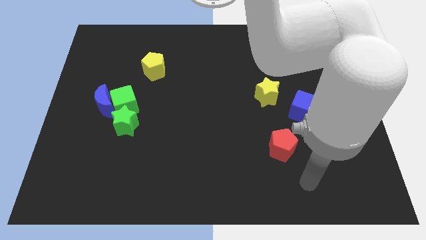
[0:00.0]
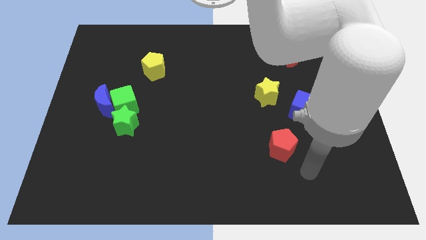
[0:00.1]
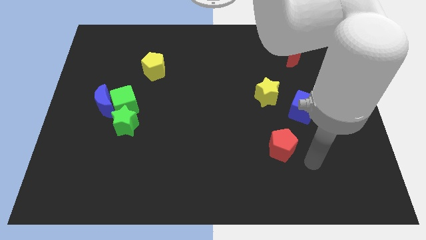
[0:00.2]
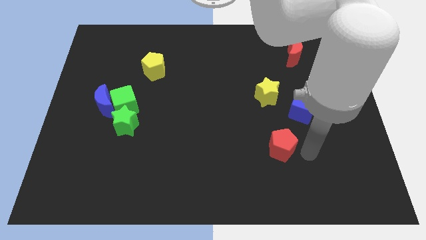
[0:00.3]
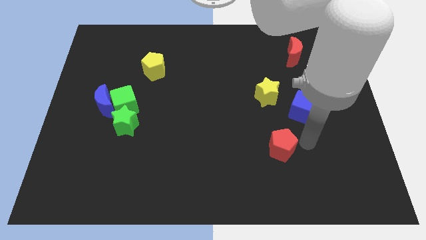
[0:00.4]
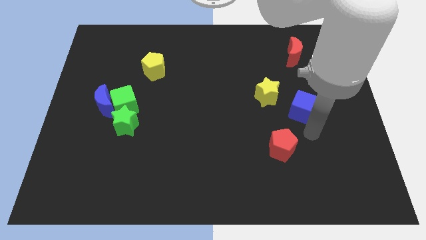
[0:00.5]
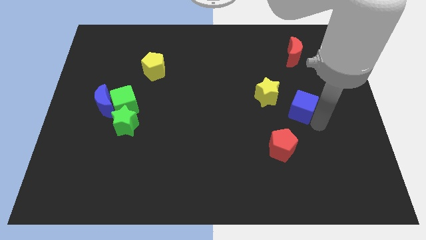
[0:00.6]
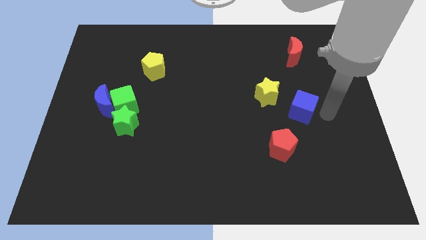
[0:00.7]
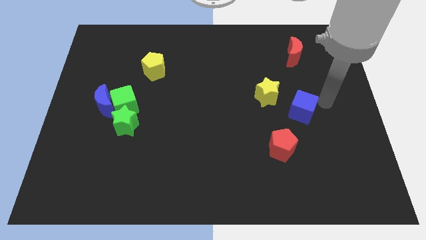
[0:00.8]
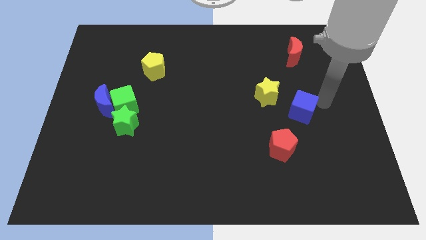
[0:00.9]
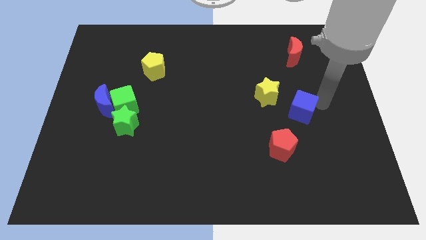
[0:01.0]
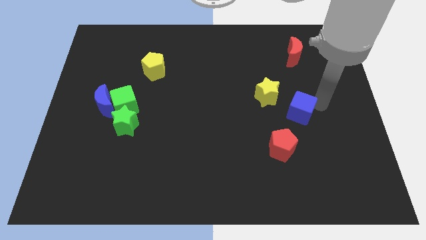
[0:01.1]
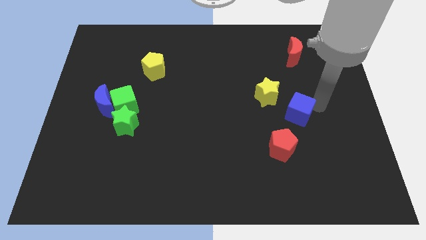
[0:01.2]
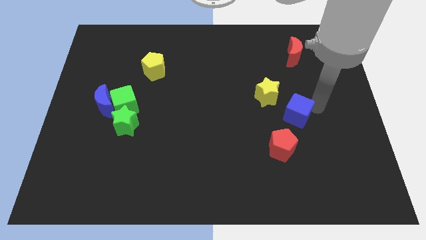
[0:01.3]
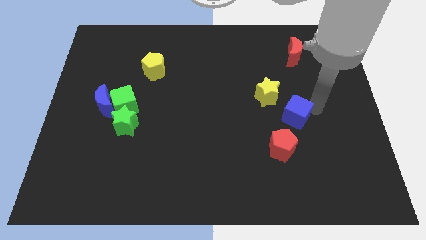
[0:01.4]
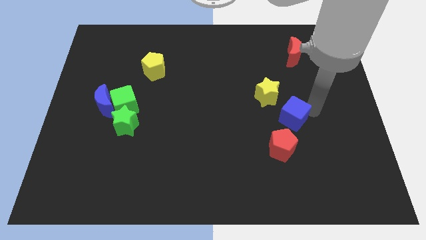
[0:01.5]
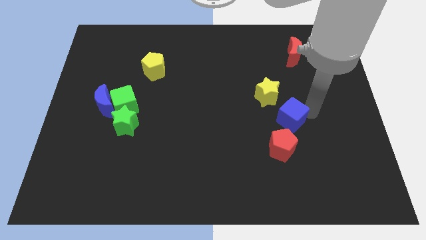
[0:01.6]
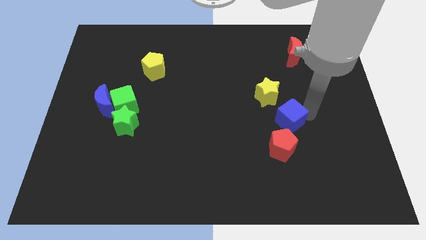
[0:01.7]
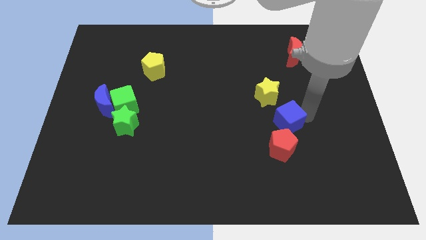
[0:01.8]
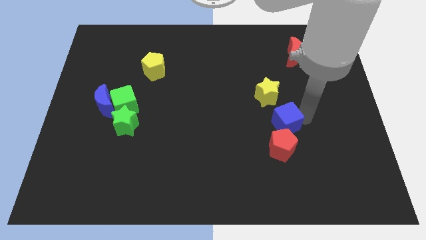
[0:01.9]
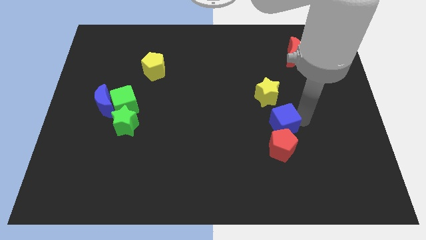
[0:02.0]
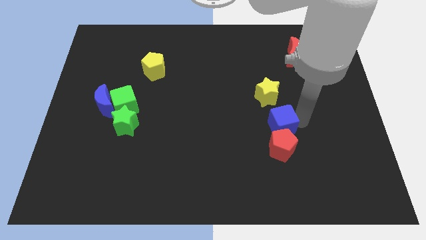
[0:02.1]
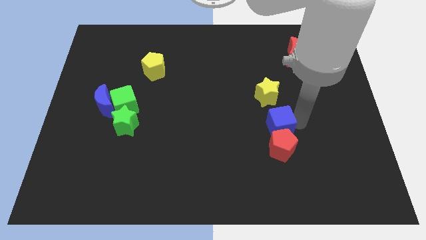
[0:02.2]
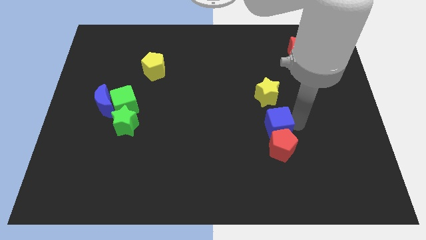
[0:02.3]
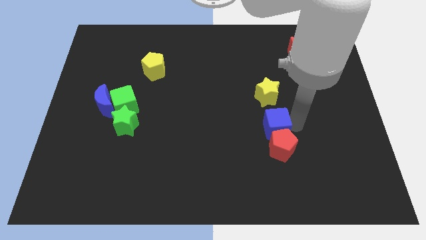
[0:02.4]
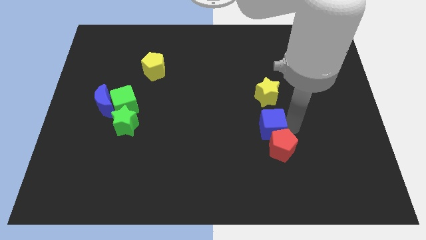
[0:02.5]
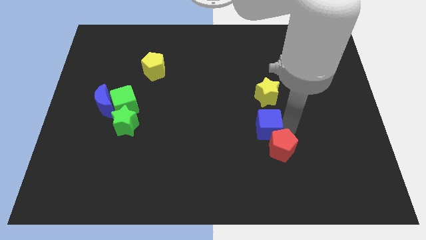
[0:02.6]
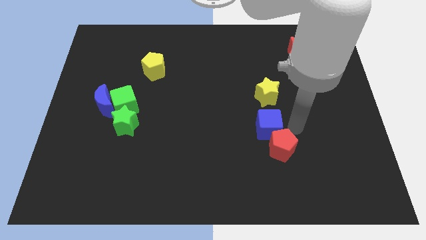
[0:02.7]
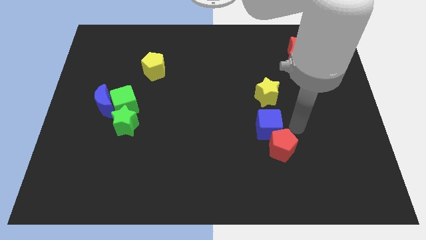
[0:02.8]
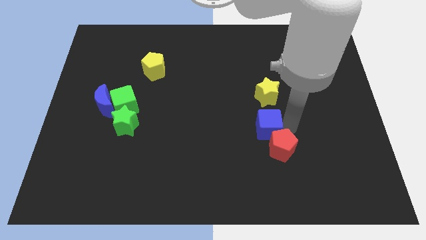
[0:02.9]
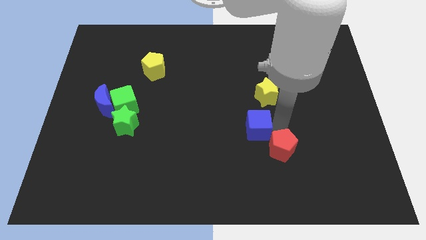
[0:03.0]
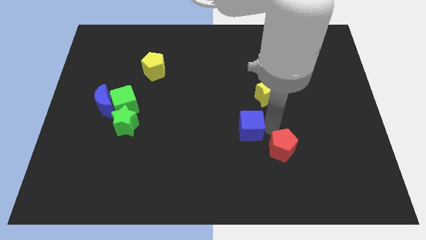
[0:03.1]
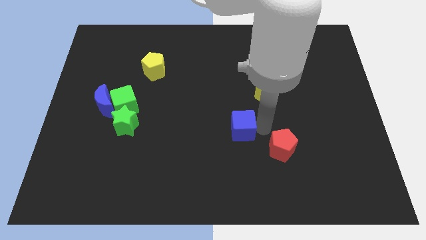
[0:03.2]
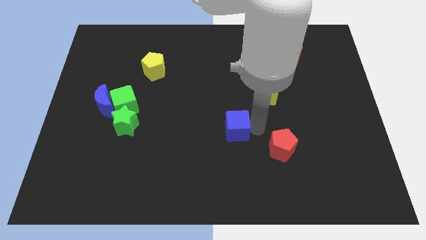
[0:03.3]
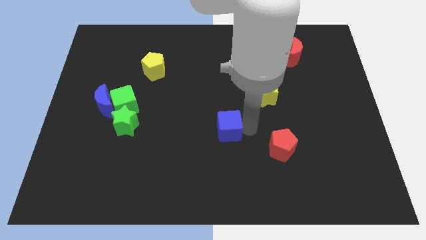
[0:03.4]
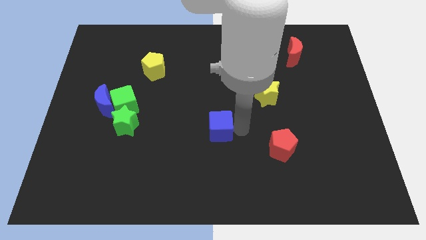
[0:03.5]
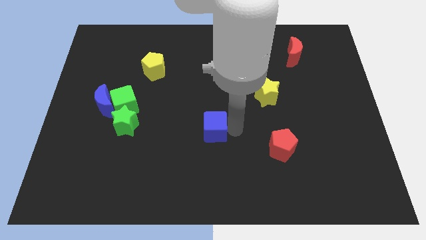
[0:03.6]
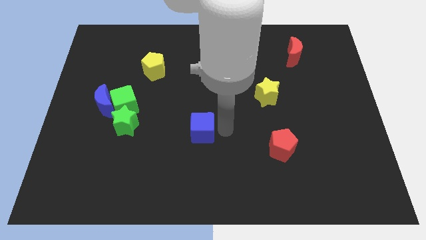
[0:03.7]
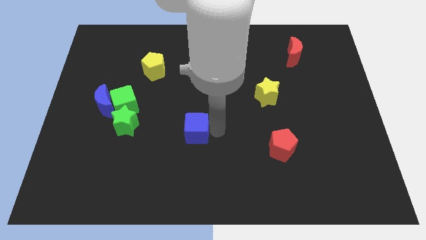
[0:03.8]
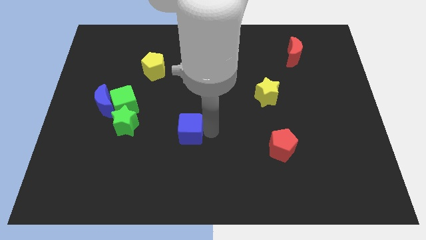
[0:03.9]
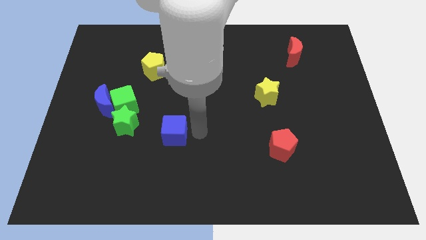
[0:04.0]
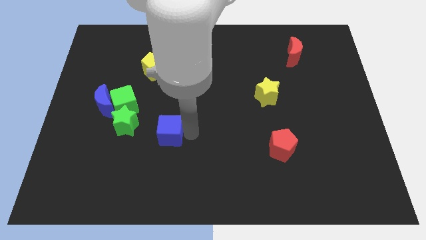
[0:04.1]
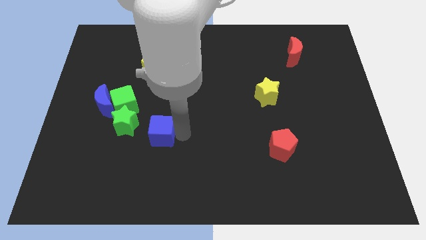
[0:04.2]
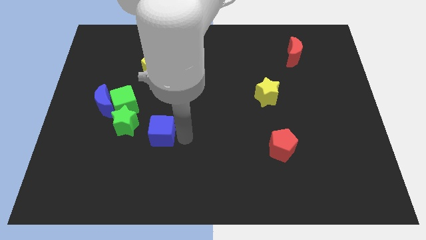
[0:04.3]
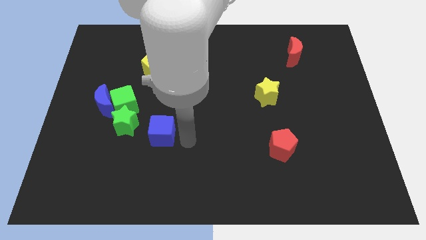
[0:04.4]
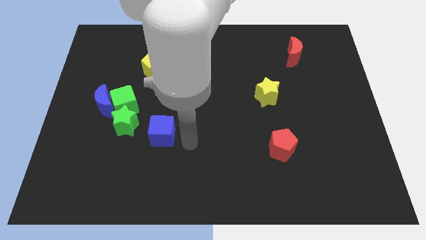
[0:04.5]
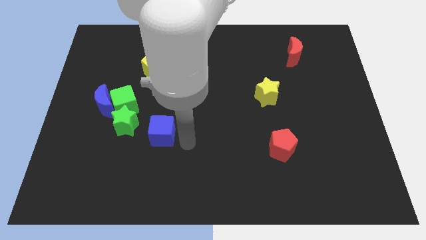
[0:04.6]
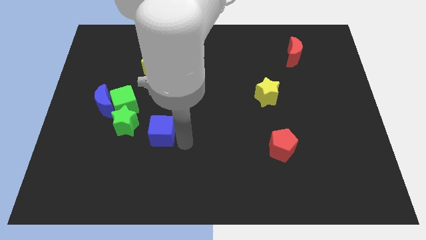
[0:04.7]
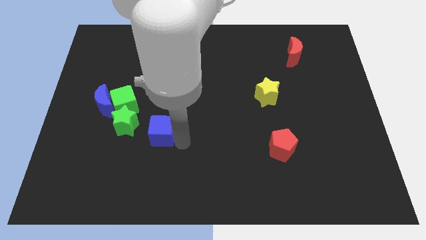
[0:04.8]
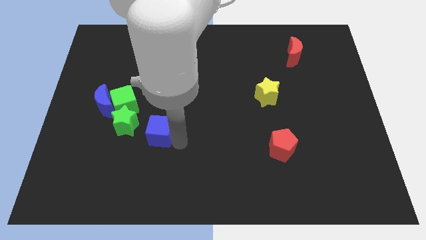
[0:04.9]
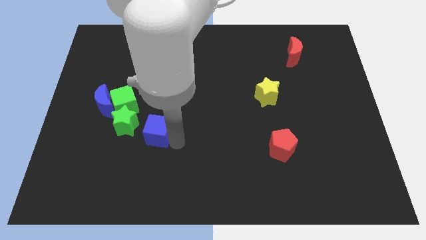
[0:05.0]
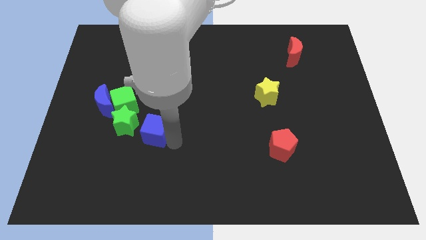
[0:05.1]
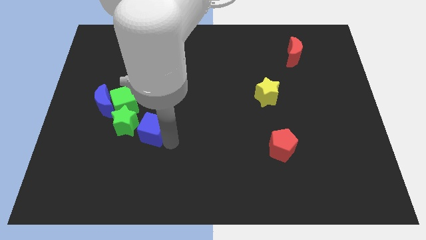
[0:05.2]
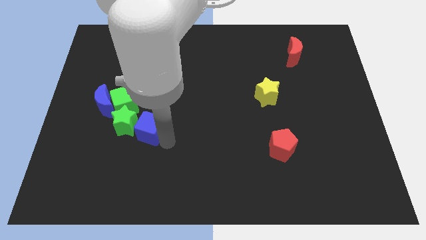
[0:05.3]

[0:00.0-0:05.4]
slide the blue cube close to the green star

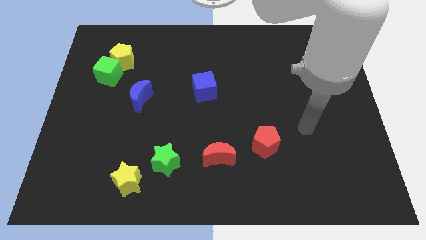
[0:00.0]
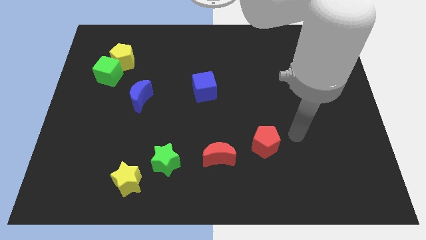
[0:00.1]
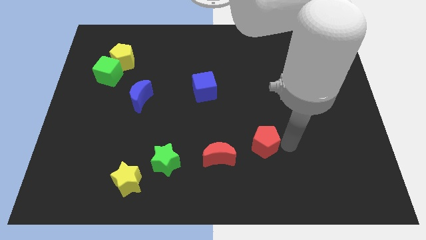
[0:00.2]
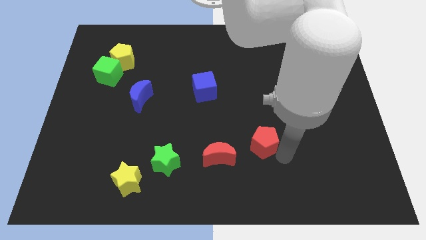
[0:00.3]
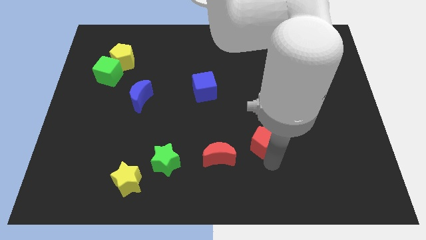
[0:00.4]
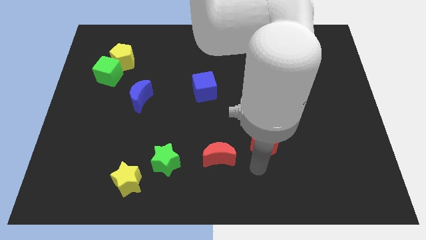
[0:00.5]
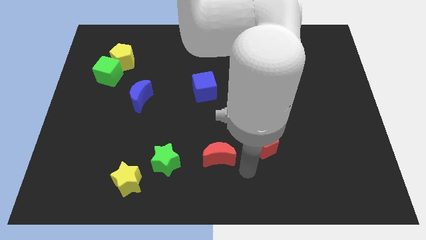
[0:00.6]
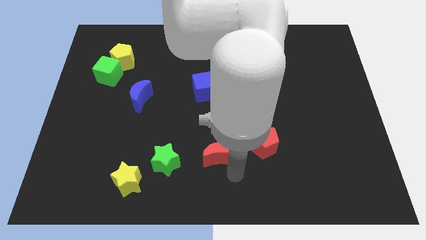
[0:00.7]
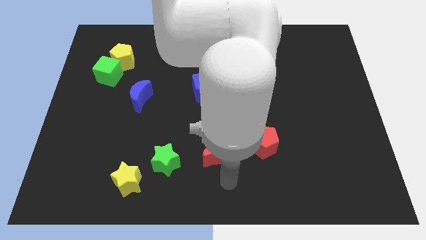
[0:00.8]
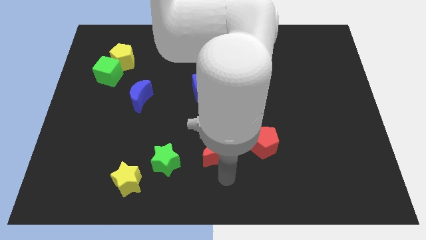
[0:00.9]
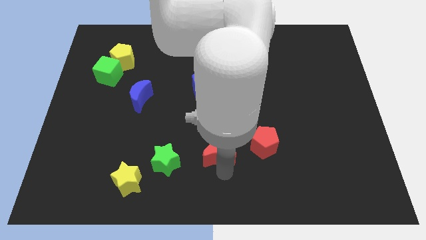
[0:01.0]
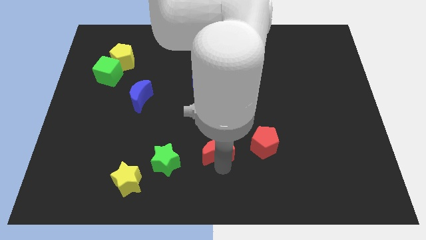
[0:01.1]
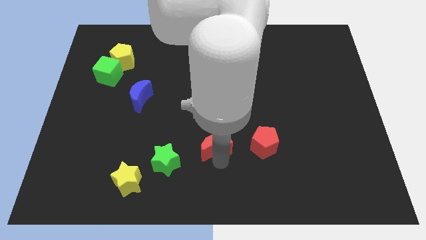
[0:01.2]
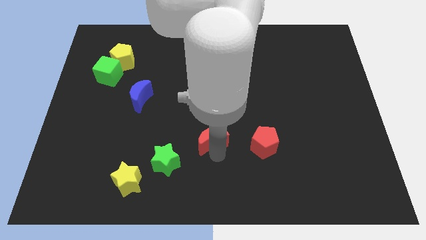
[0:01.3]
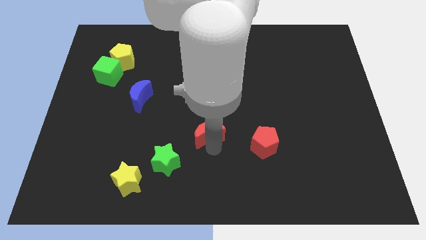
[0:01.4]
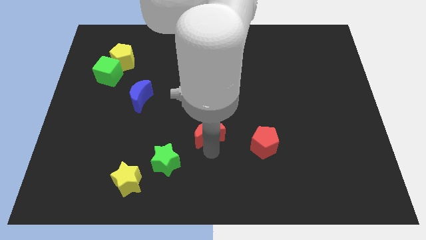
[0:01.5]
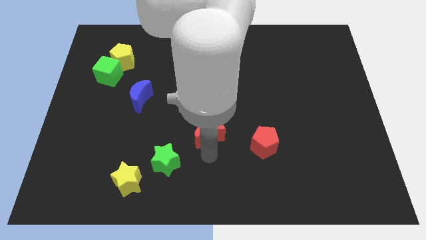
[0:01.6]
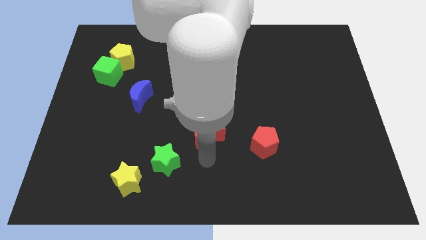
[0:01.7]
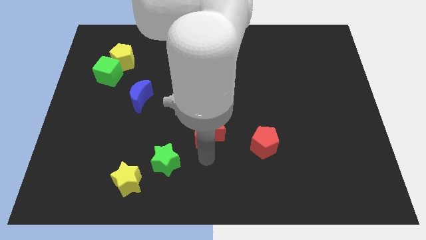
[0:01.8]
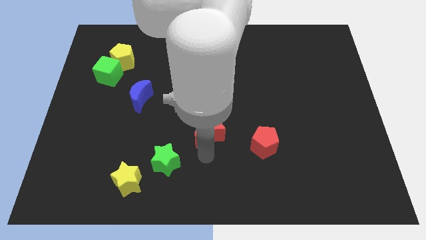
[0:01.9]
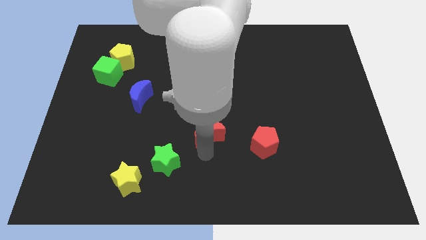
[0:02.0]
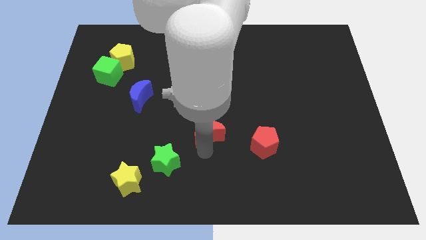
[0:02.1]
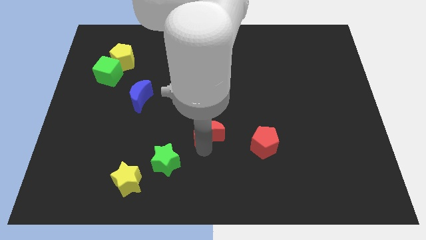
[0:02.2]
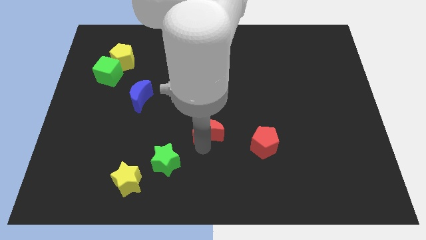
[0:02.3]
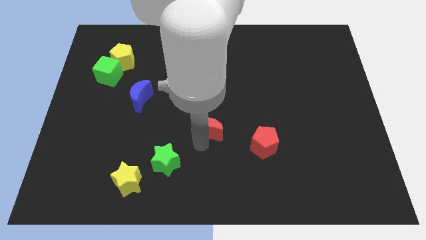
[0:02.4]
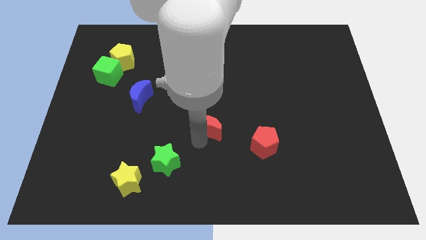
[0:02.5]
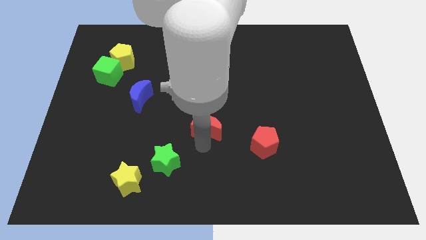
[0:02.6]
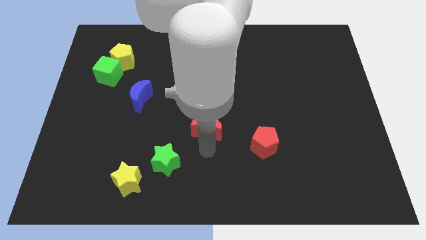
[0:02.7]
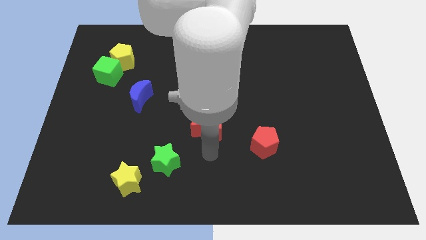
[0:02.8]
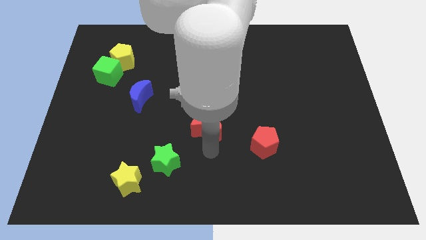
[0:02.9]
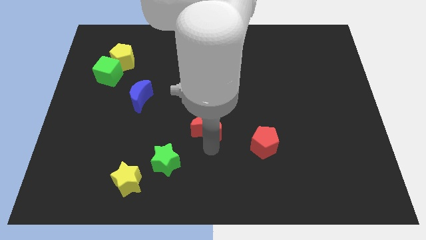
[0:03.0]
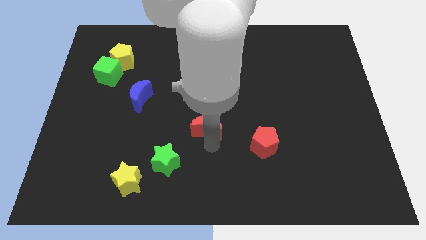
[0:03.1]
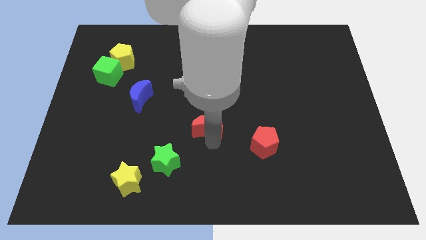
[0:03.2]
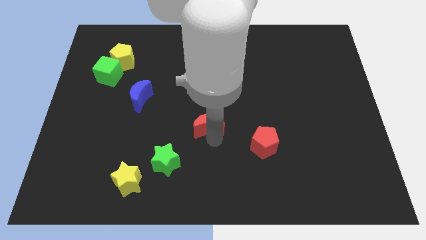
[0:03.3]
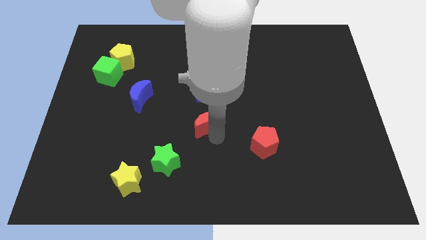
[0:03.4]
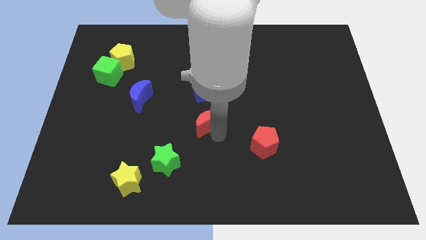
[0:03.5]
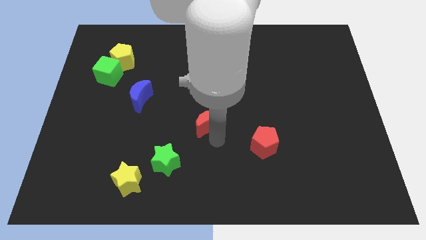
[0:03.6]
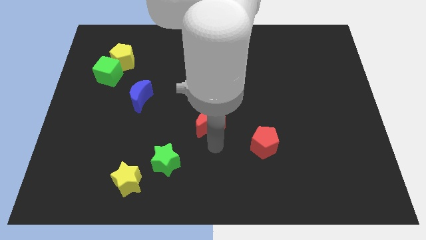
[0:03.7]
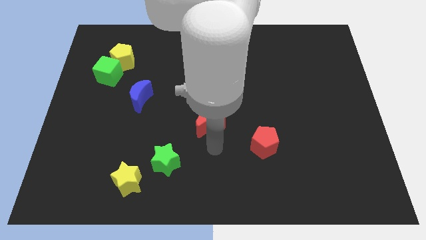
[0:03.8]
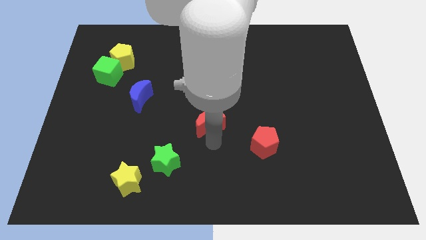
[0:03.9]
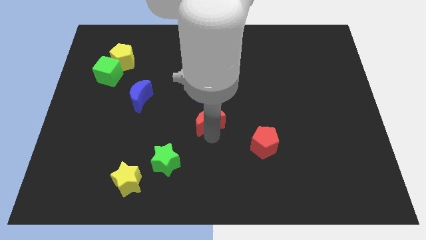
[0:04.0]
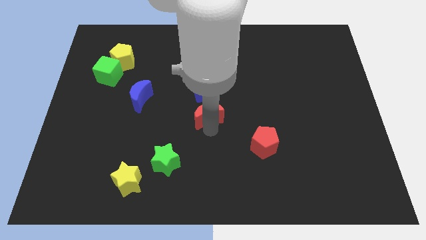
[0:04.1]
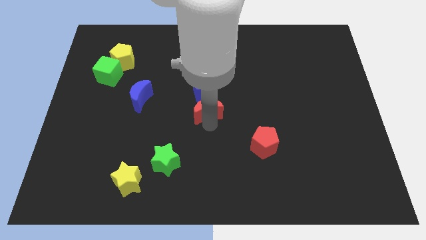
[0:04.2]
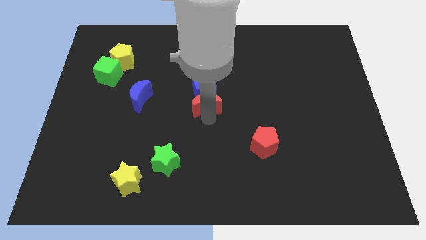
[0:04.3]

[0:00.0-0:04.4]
move the red moon towards the blue cube
